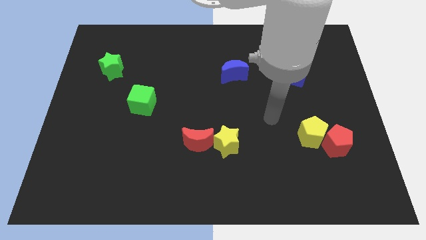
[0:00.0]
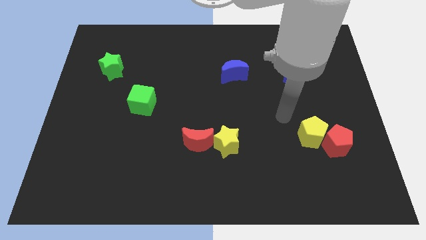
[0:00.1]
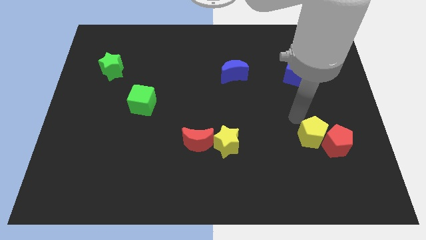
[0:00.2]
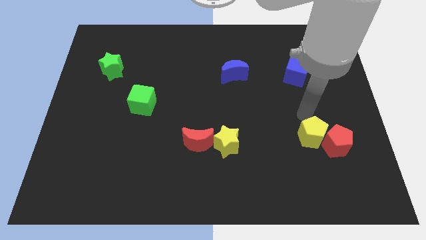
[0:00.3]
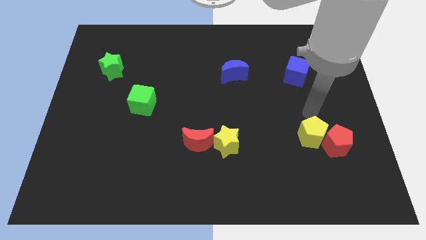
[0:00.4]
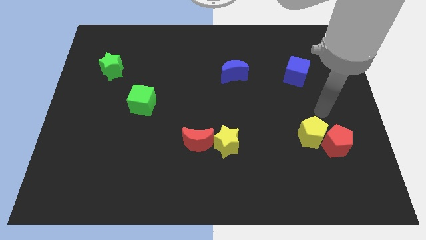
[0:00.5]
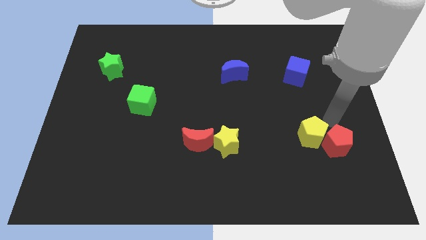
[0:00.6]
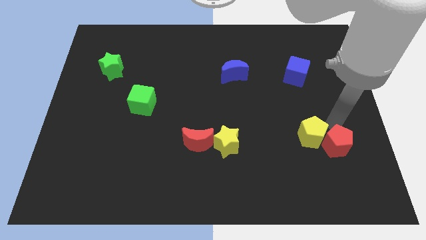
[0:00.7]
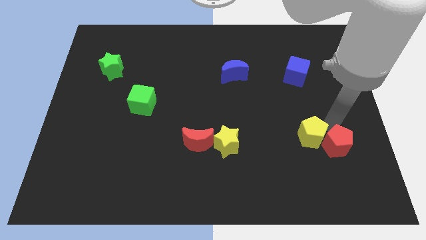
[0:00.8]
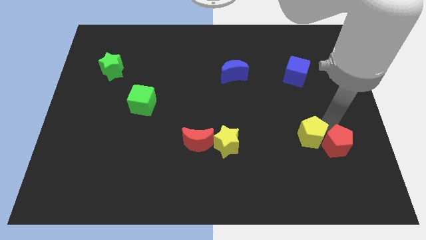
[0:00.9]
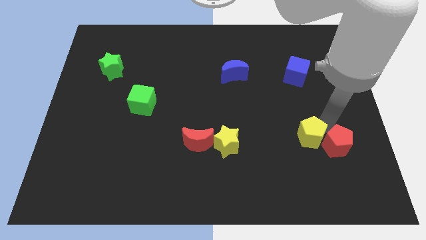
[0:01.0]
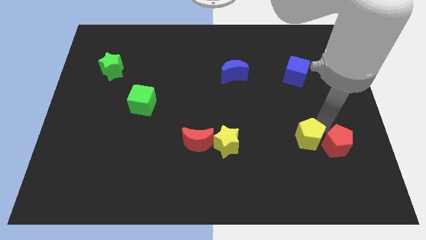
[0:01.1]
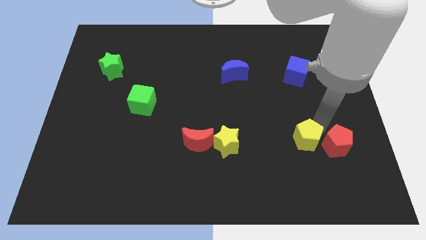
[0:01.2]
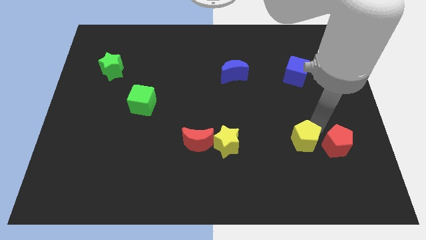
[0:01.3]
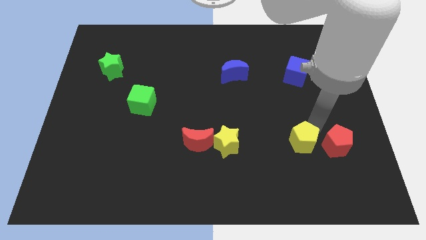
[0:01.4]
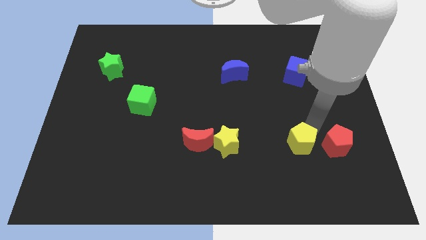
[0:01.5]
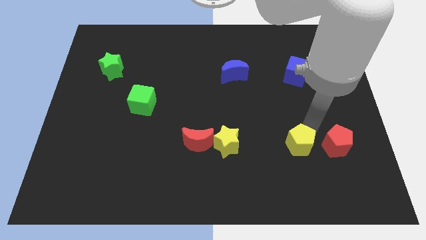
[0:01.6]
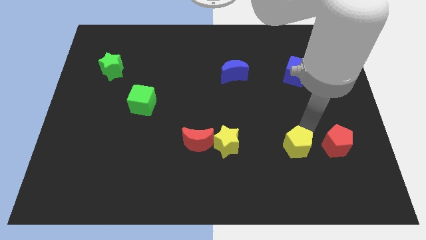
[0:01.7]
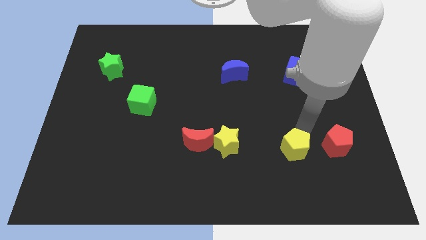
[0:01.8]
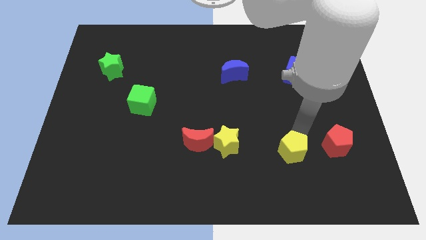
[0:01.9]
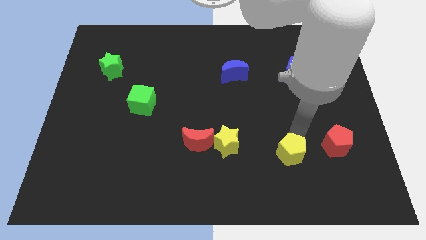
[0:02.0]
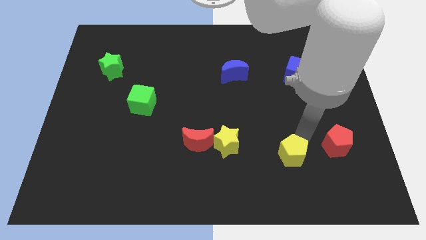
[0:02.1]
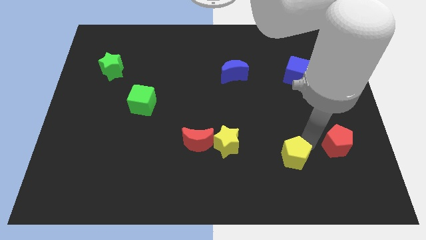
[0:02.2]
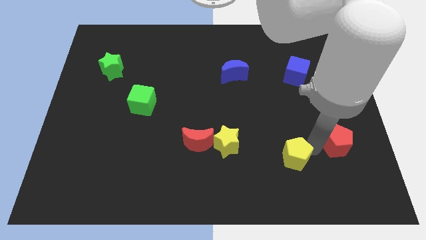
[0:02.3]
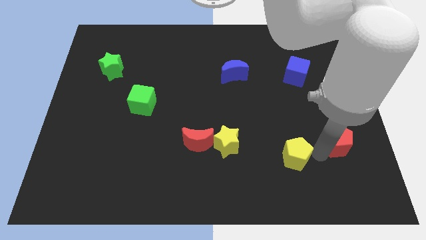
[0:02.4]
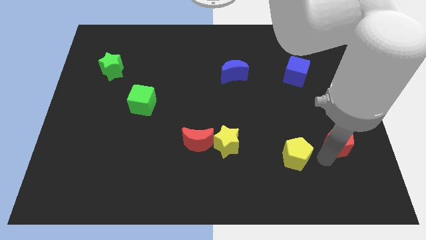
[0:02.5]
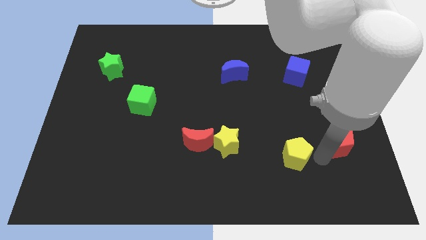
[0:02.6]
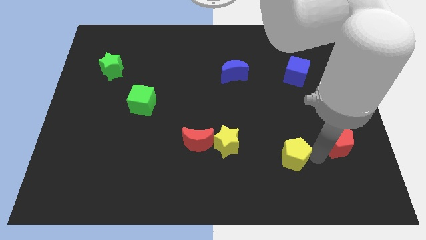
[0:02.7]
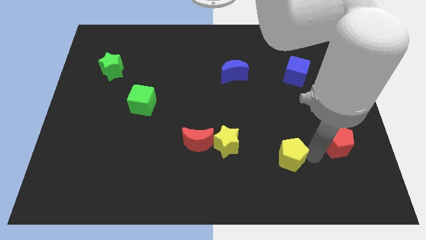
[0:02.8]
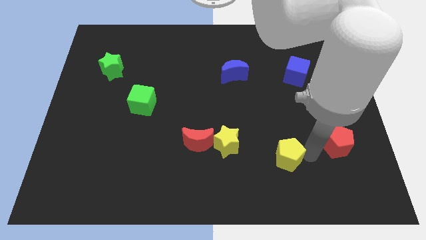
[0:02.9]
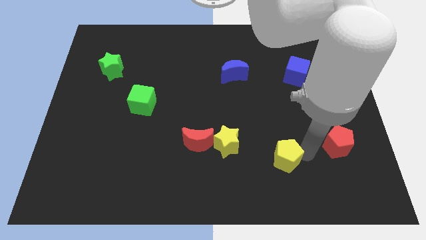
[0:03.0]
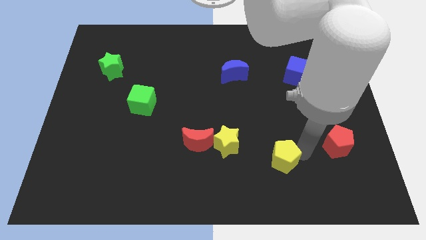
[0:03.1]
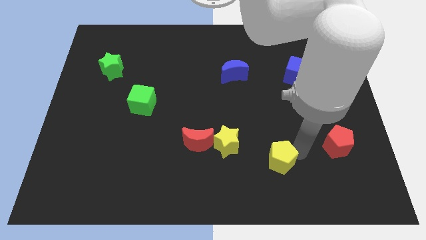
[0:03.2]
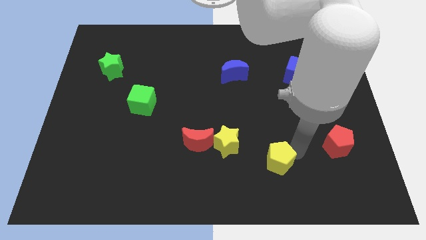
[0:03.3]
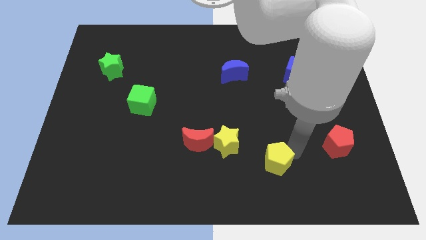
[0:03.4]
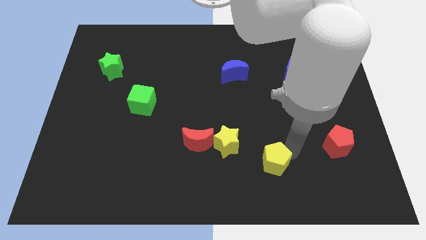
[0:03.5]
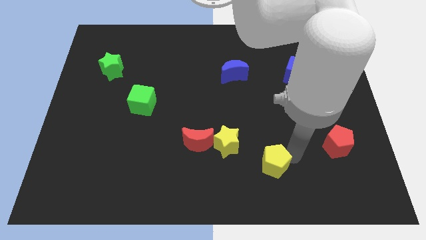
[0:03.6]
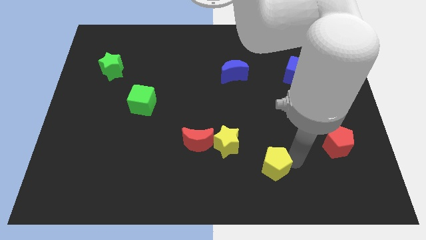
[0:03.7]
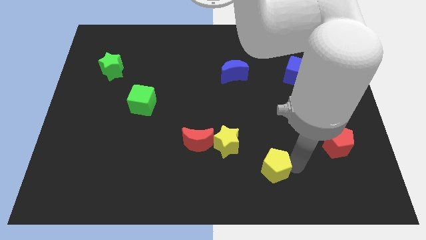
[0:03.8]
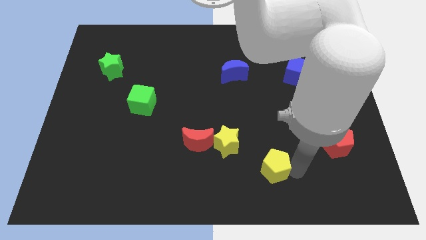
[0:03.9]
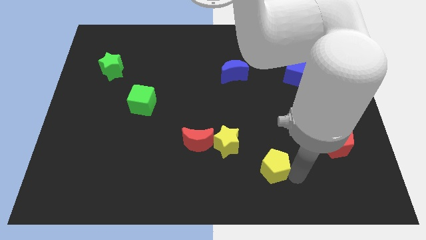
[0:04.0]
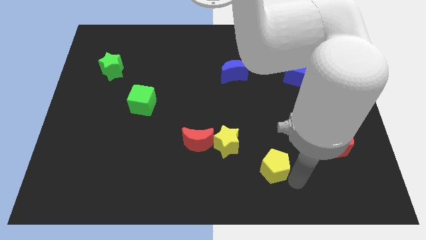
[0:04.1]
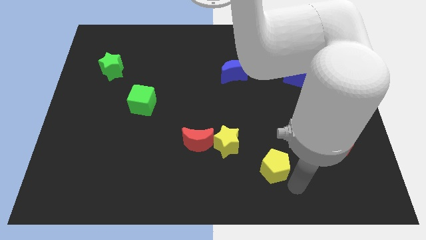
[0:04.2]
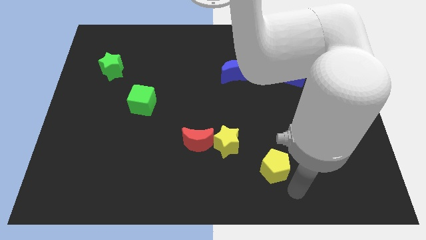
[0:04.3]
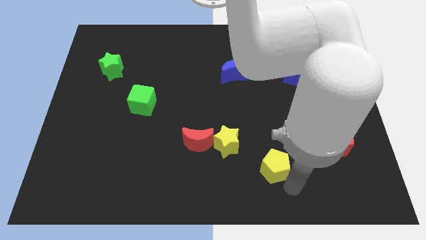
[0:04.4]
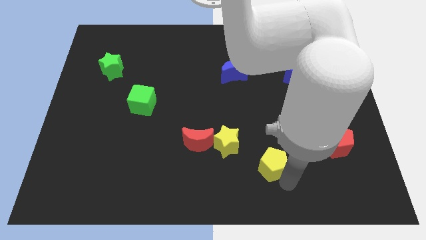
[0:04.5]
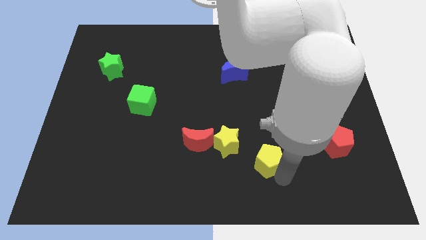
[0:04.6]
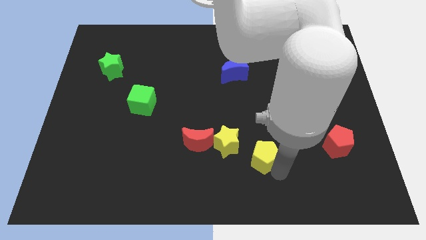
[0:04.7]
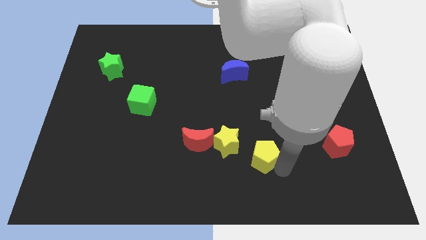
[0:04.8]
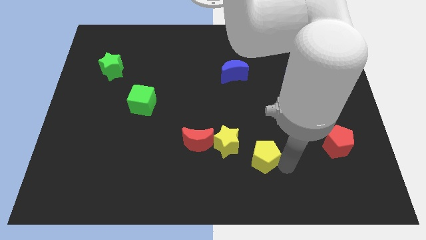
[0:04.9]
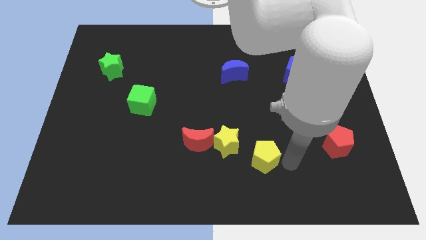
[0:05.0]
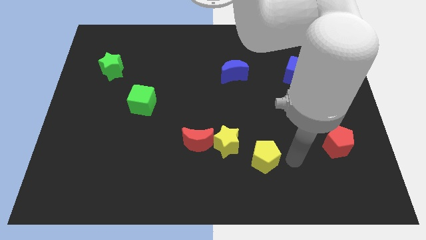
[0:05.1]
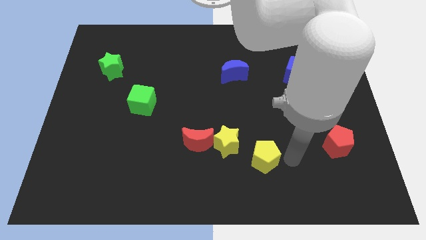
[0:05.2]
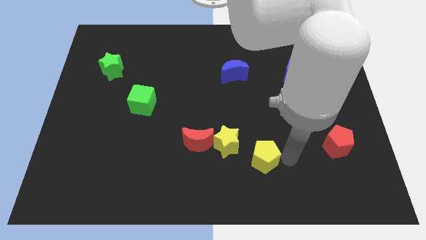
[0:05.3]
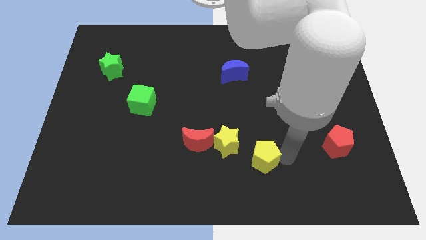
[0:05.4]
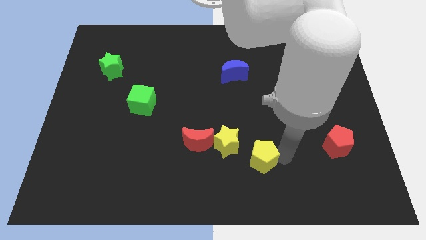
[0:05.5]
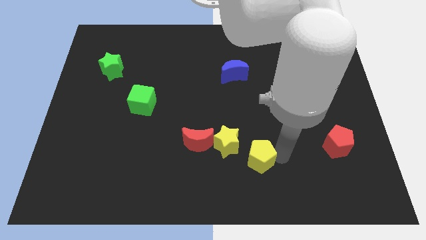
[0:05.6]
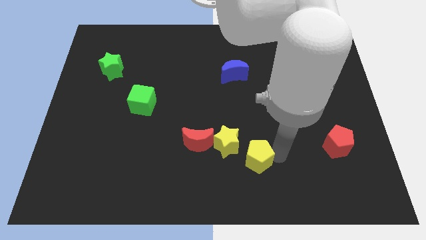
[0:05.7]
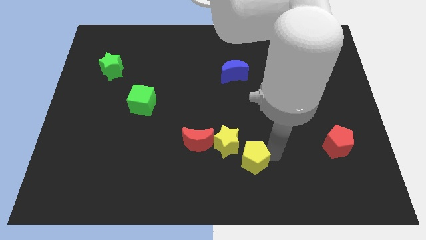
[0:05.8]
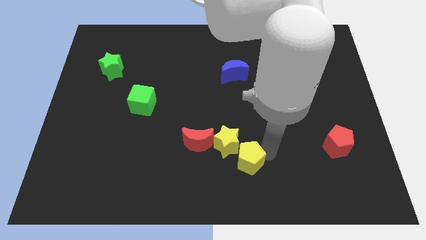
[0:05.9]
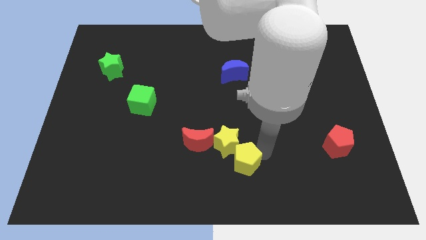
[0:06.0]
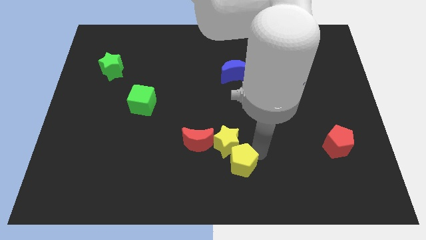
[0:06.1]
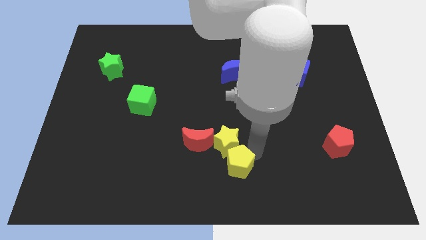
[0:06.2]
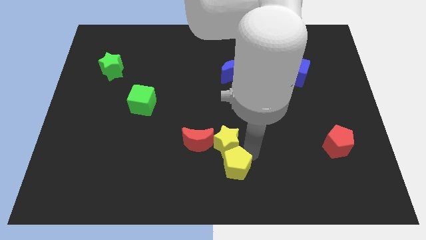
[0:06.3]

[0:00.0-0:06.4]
push the yellow pentagon to the bottom left of the yellow star
